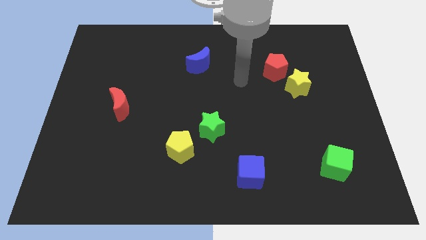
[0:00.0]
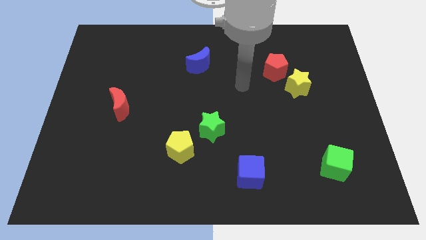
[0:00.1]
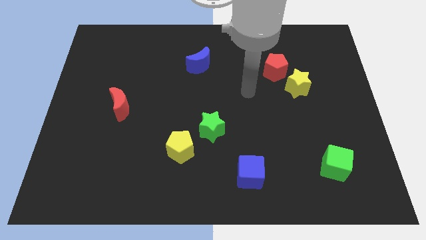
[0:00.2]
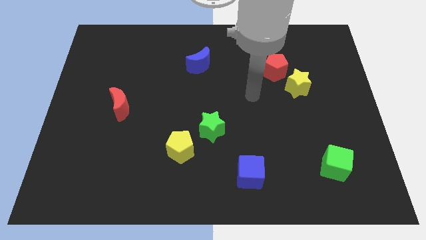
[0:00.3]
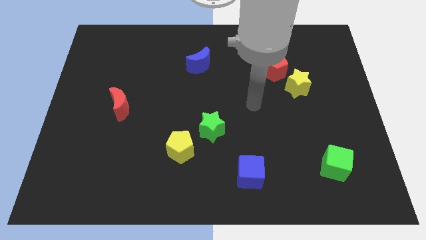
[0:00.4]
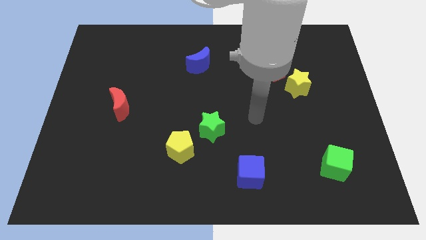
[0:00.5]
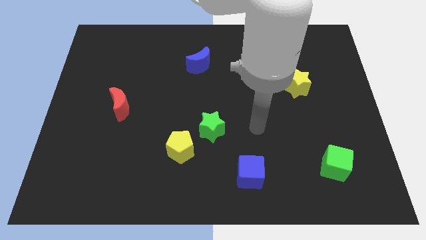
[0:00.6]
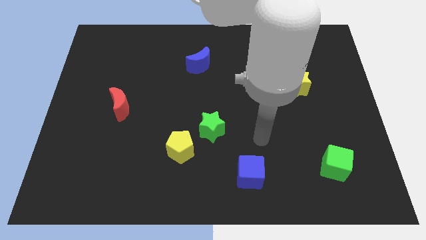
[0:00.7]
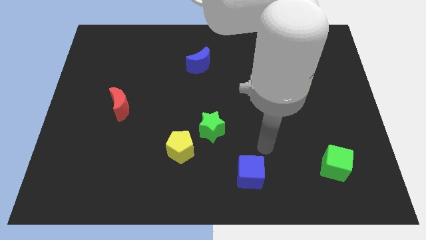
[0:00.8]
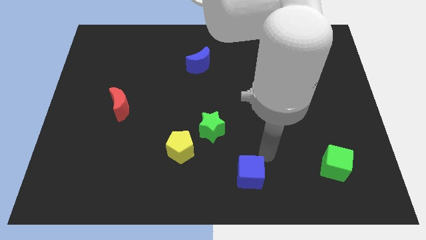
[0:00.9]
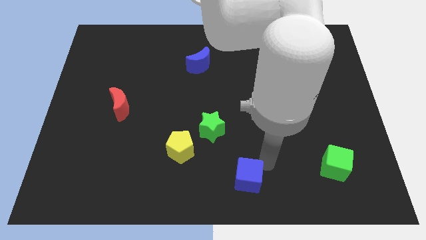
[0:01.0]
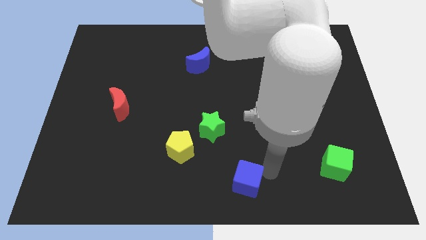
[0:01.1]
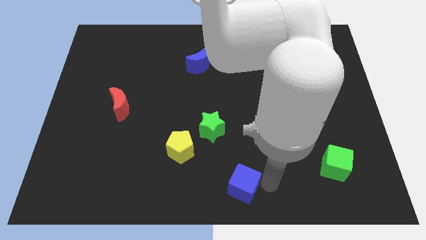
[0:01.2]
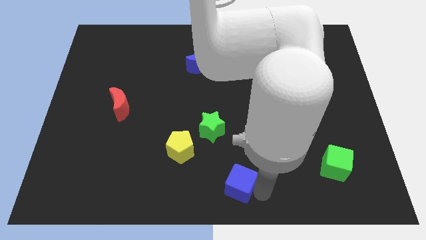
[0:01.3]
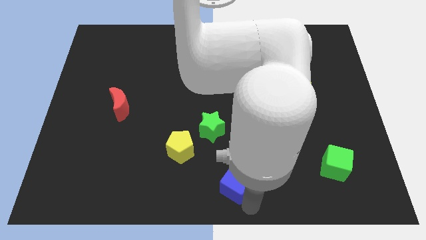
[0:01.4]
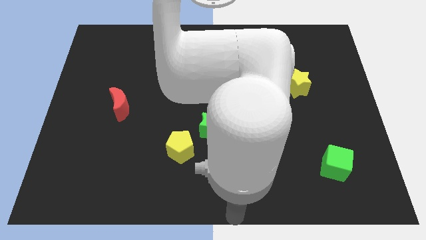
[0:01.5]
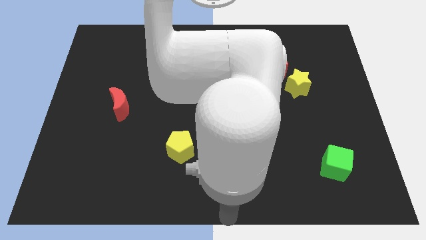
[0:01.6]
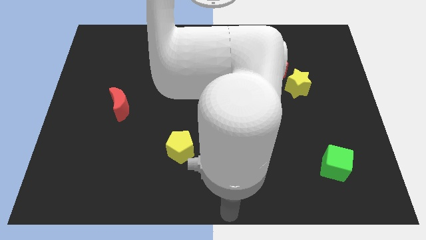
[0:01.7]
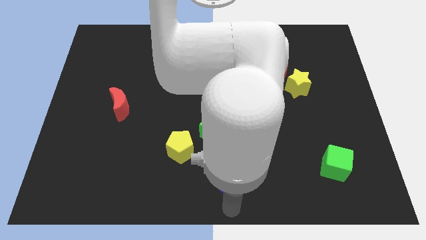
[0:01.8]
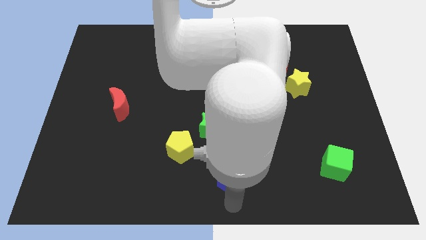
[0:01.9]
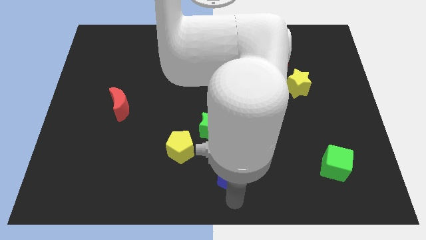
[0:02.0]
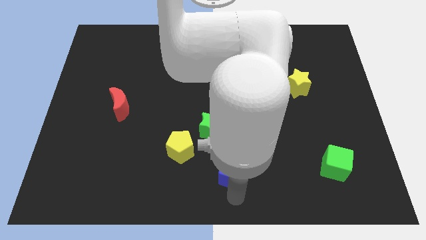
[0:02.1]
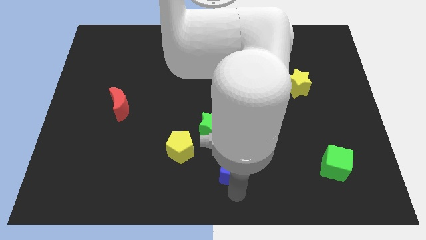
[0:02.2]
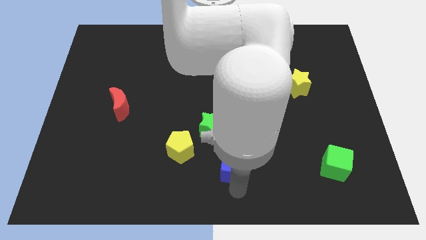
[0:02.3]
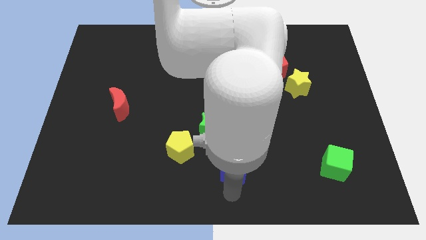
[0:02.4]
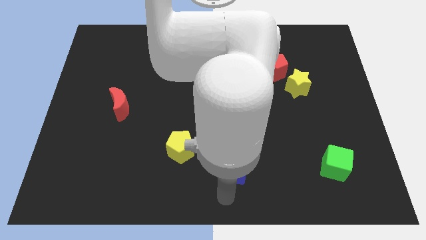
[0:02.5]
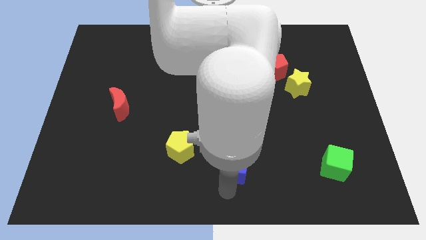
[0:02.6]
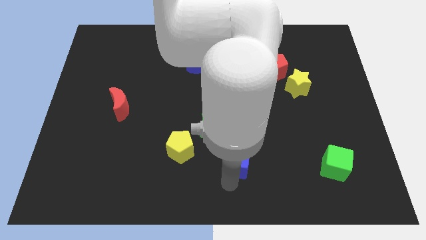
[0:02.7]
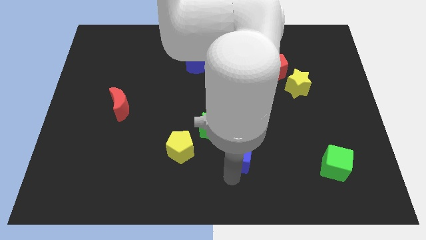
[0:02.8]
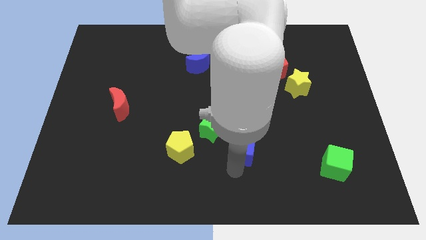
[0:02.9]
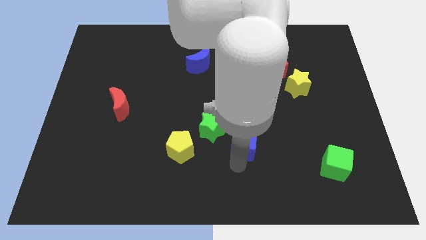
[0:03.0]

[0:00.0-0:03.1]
slightly move the blue cube upwards

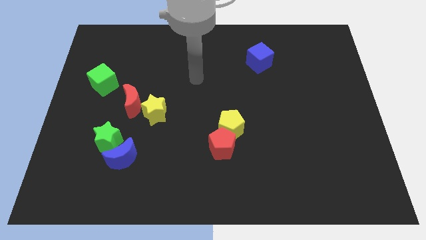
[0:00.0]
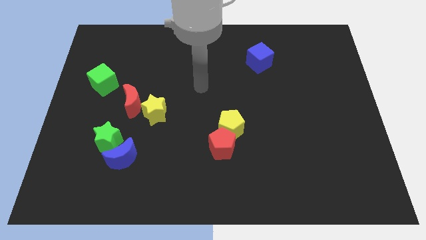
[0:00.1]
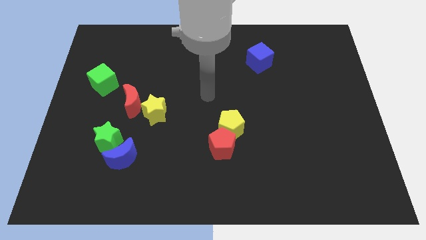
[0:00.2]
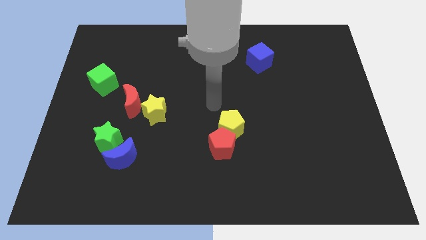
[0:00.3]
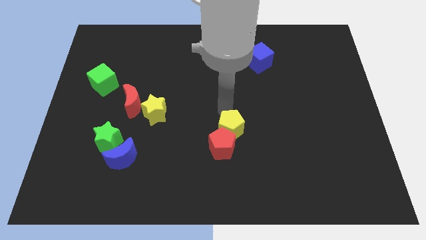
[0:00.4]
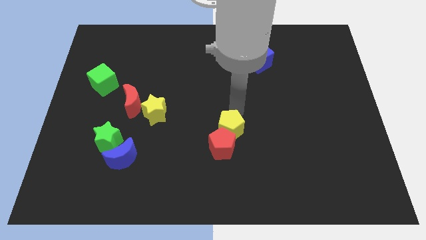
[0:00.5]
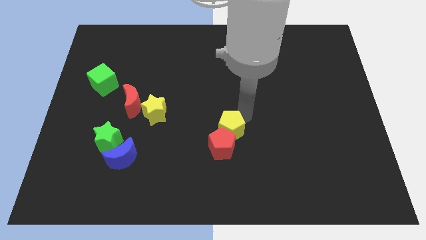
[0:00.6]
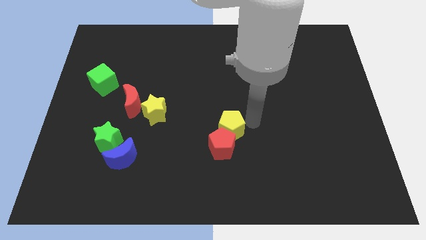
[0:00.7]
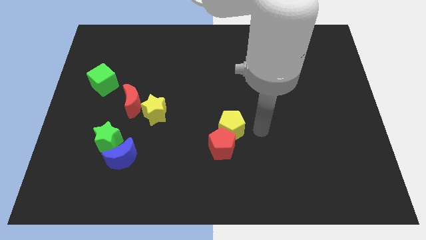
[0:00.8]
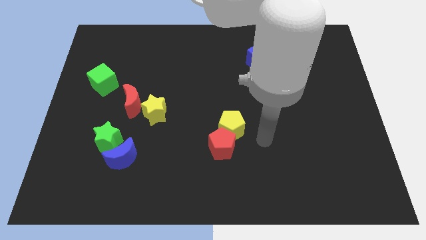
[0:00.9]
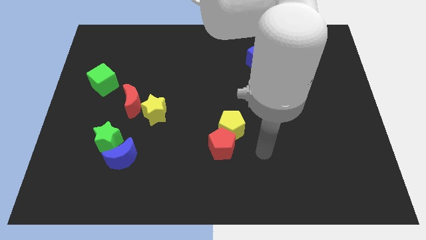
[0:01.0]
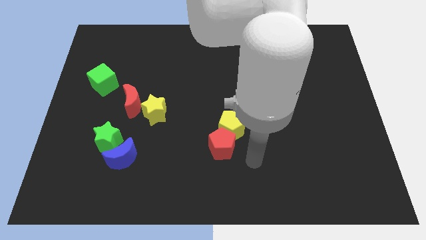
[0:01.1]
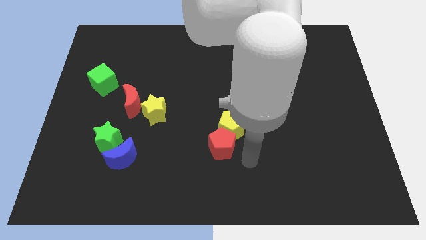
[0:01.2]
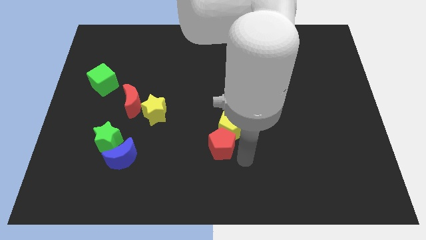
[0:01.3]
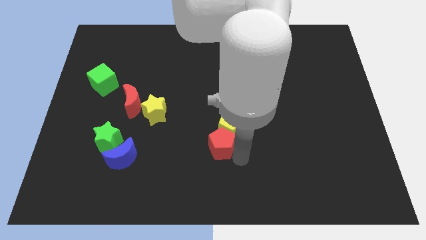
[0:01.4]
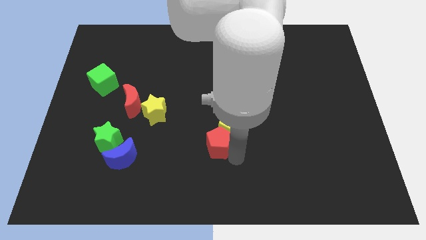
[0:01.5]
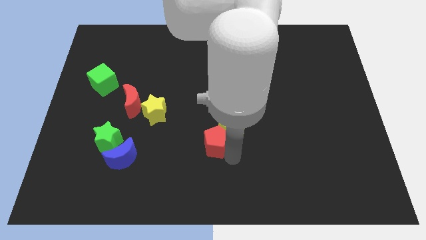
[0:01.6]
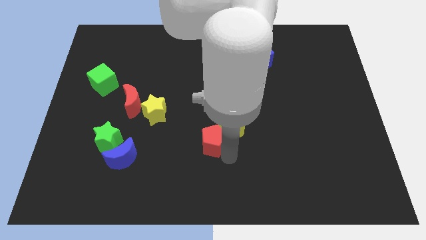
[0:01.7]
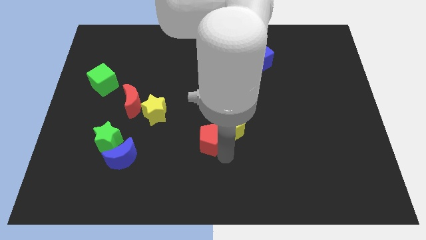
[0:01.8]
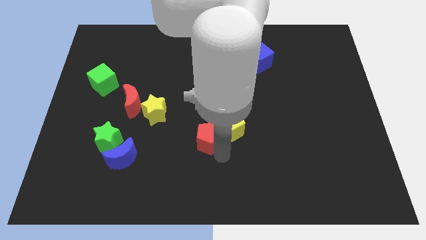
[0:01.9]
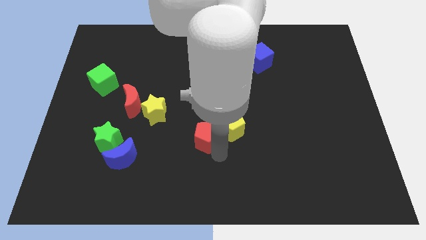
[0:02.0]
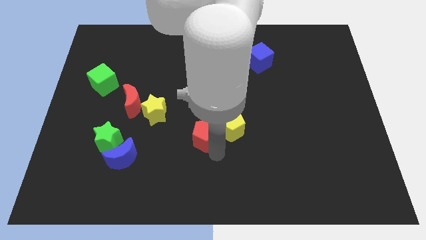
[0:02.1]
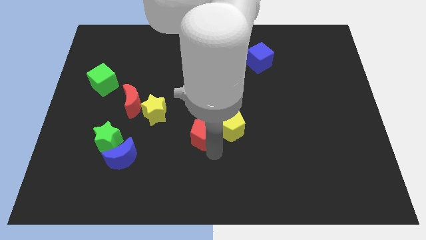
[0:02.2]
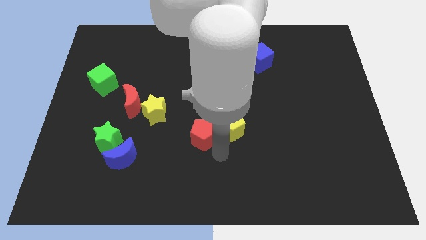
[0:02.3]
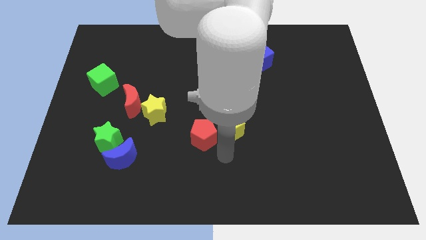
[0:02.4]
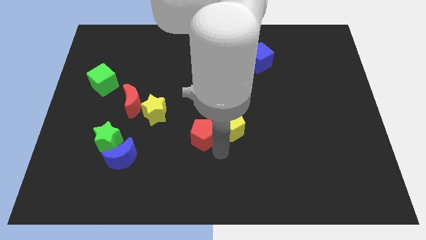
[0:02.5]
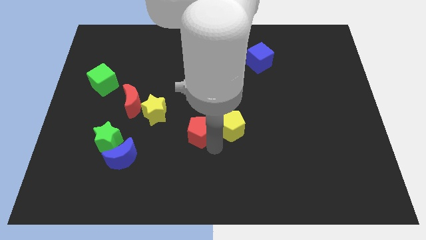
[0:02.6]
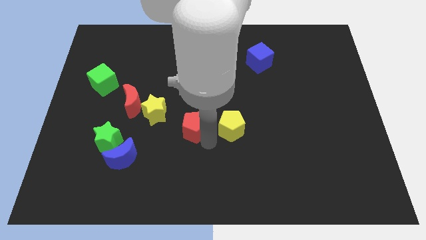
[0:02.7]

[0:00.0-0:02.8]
push the red pentagon a bit up and left

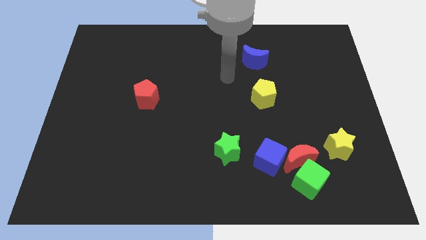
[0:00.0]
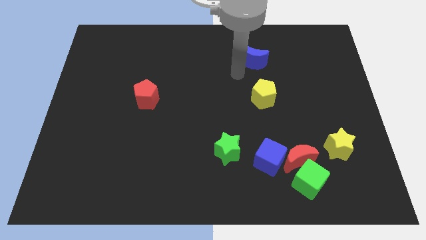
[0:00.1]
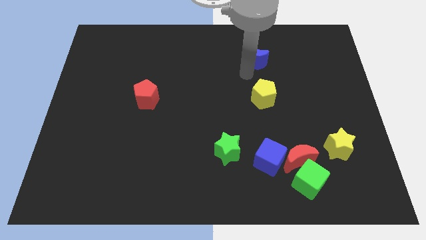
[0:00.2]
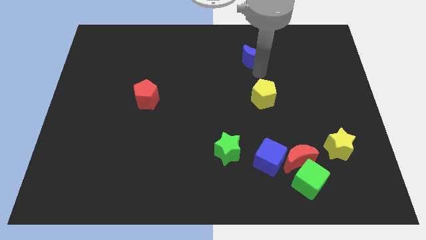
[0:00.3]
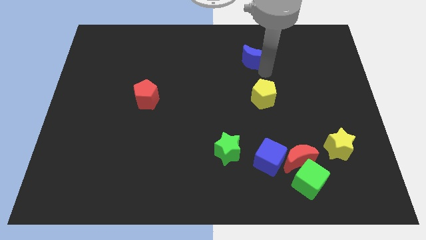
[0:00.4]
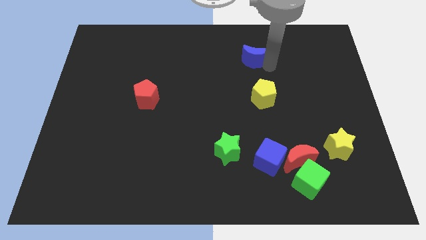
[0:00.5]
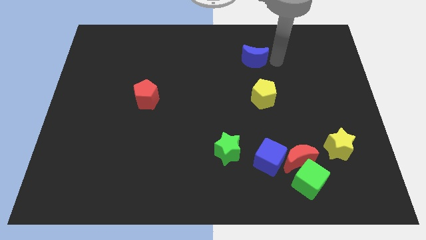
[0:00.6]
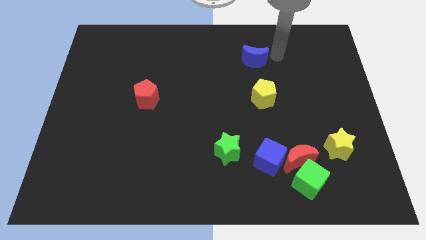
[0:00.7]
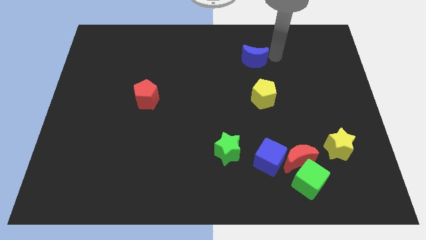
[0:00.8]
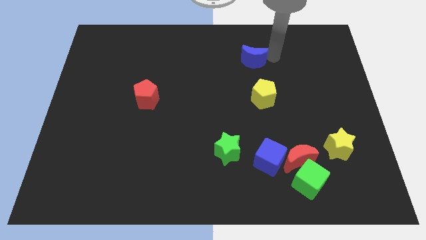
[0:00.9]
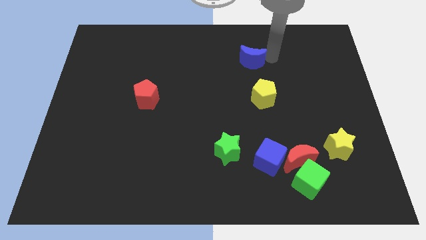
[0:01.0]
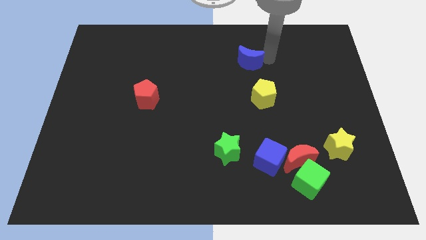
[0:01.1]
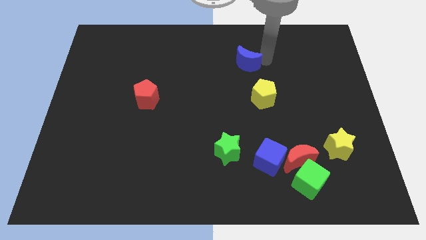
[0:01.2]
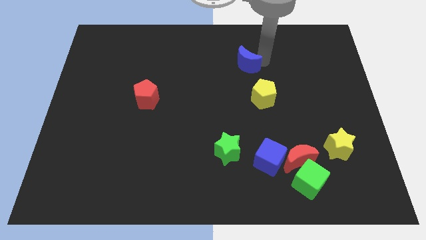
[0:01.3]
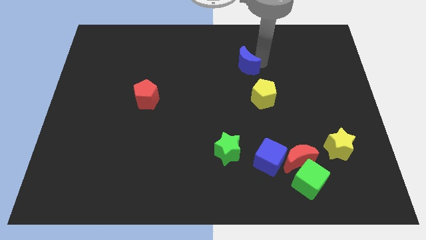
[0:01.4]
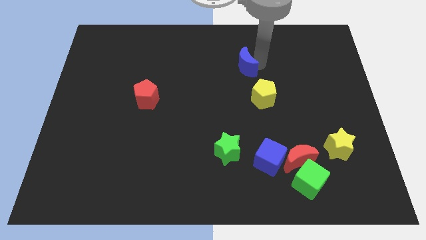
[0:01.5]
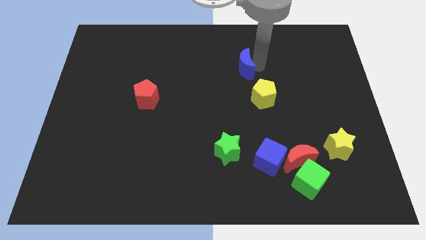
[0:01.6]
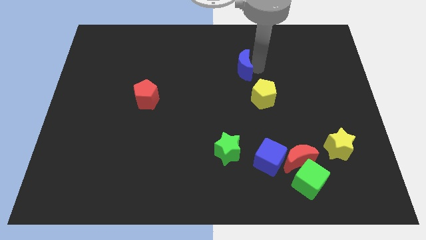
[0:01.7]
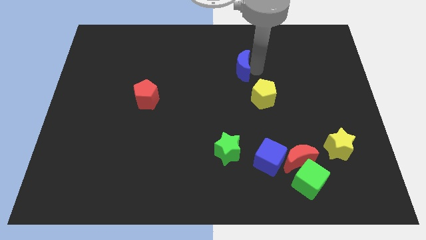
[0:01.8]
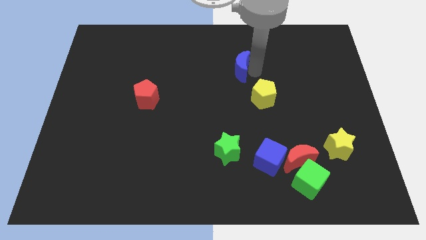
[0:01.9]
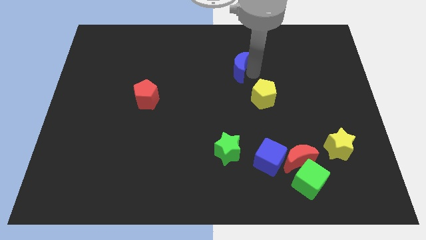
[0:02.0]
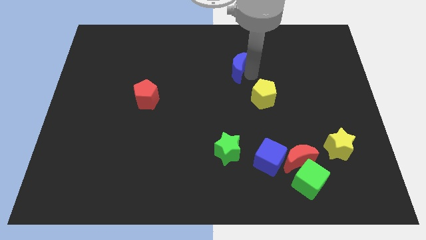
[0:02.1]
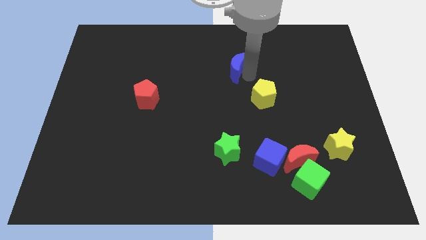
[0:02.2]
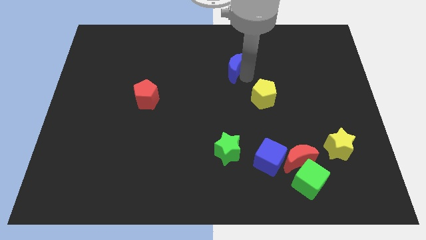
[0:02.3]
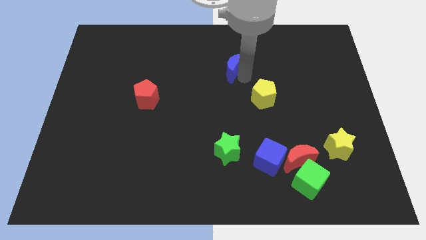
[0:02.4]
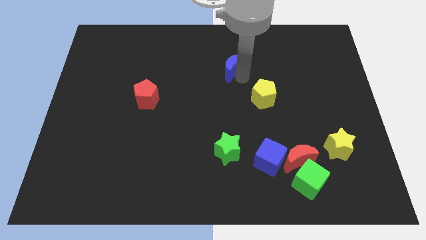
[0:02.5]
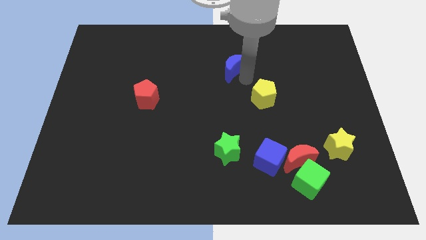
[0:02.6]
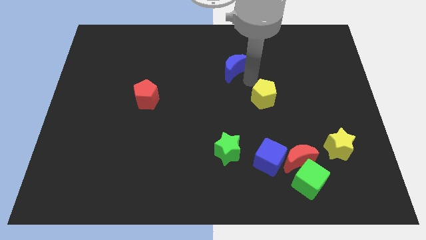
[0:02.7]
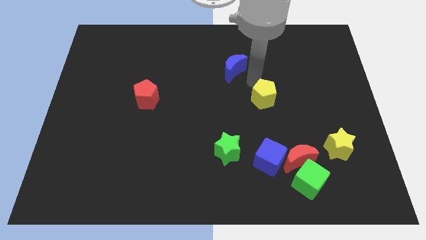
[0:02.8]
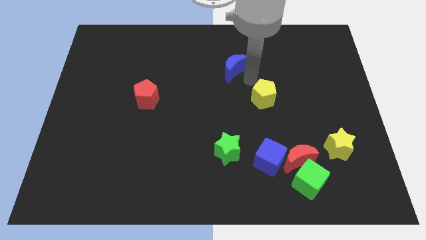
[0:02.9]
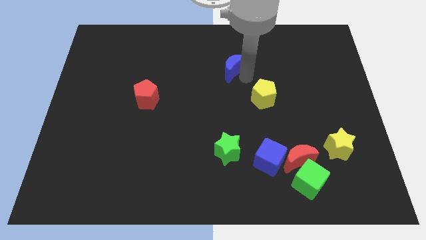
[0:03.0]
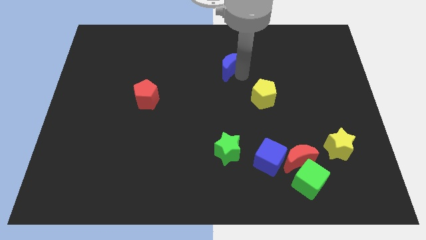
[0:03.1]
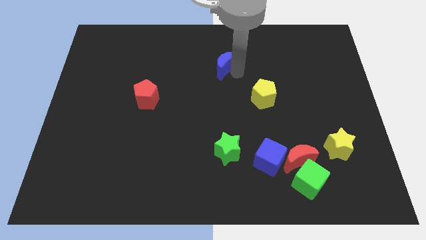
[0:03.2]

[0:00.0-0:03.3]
slide the blue moon a little left
